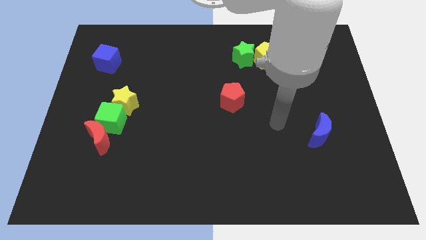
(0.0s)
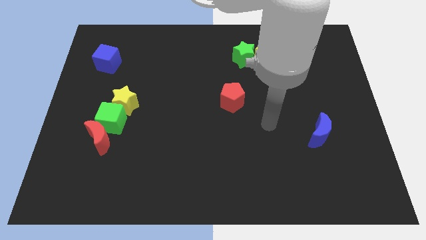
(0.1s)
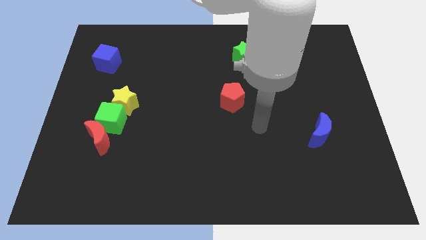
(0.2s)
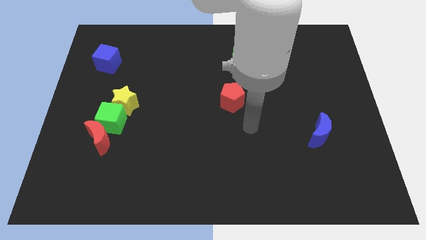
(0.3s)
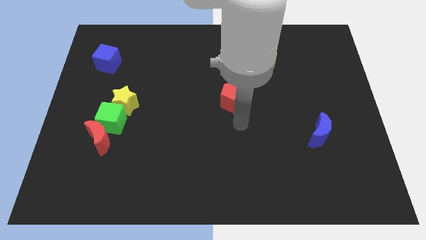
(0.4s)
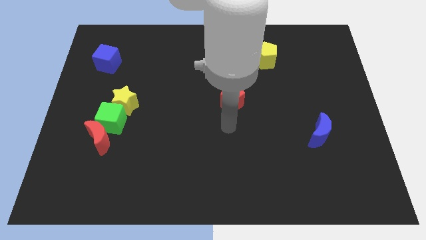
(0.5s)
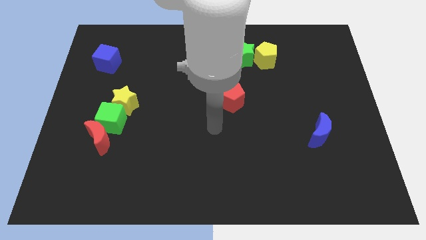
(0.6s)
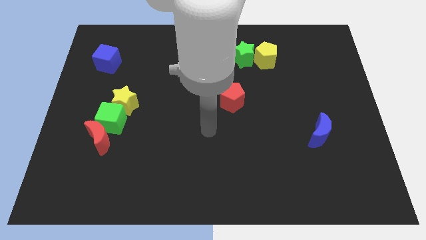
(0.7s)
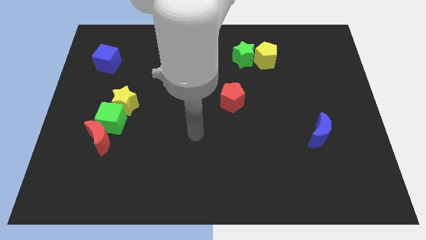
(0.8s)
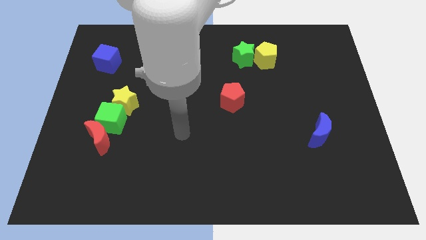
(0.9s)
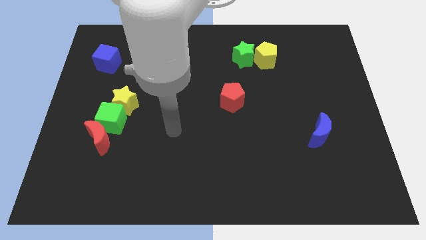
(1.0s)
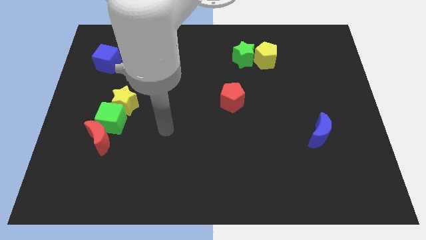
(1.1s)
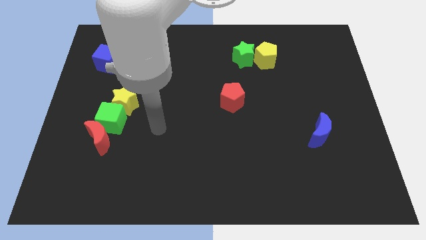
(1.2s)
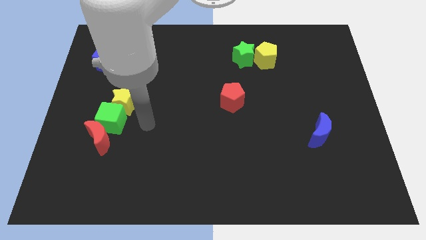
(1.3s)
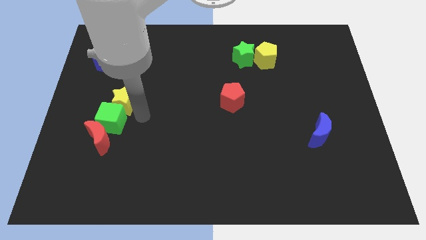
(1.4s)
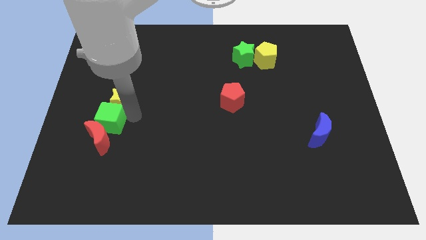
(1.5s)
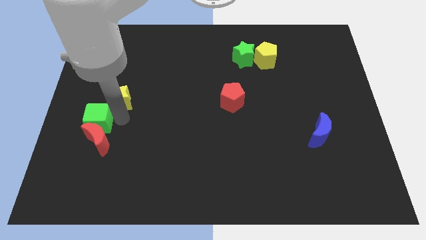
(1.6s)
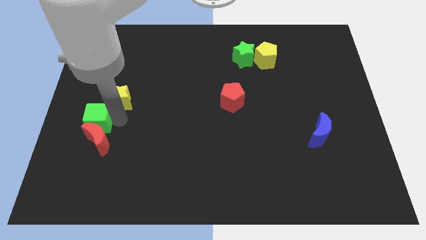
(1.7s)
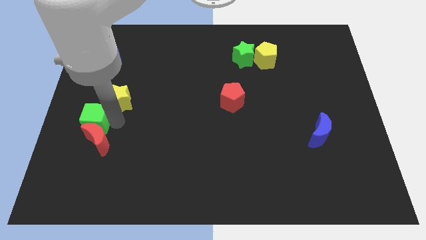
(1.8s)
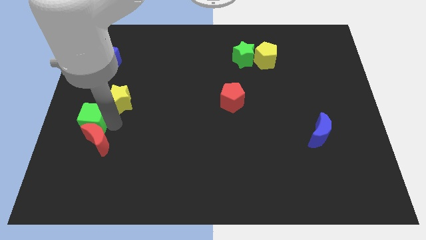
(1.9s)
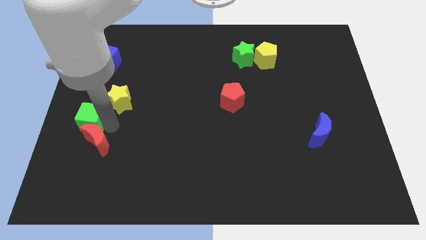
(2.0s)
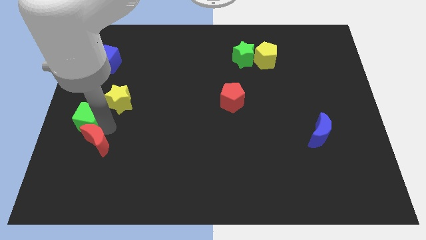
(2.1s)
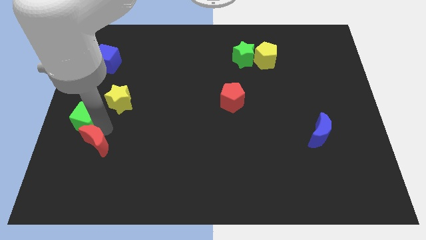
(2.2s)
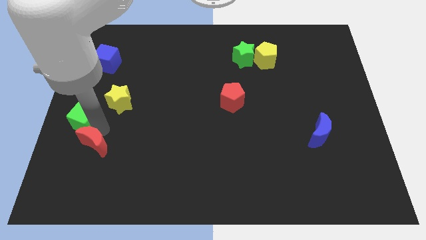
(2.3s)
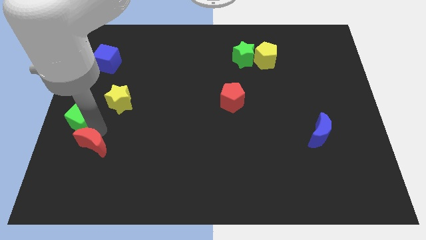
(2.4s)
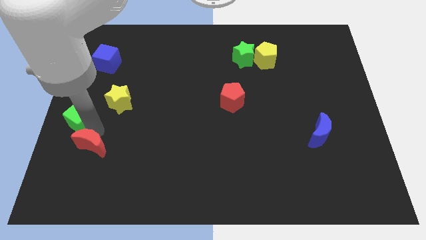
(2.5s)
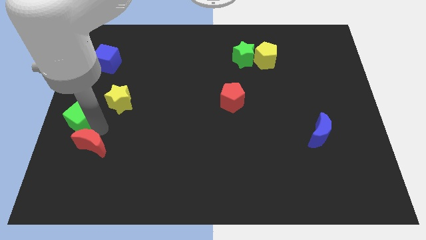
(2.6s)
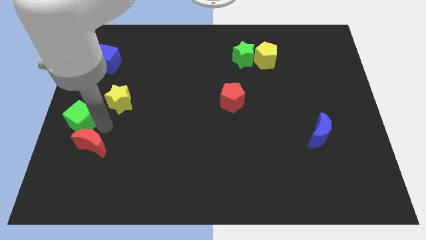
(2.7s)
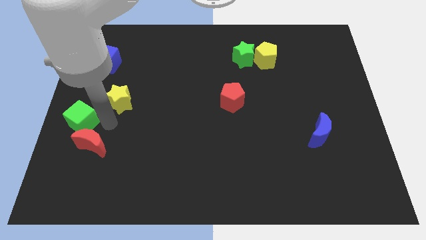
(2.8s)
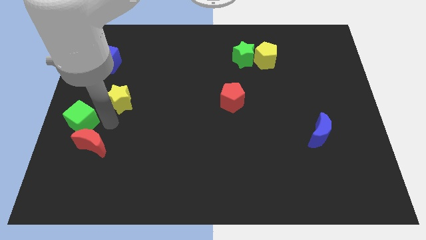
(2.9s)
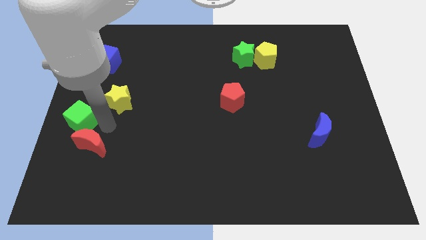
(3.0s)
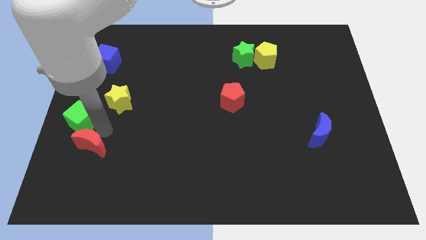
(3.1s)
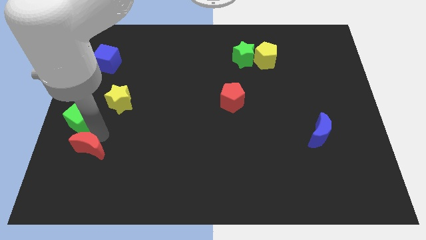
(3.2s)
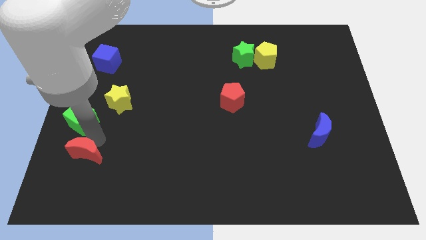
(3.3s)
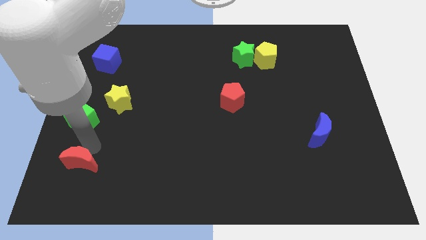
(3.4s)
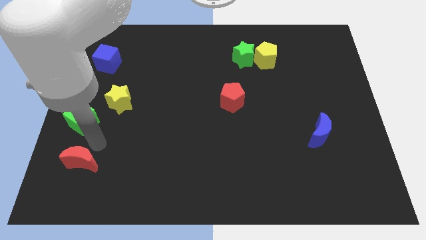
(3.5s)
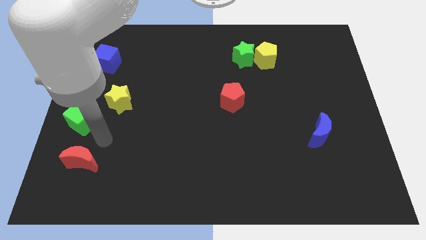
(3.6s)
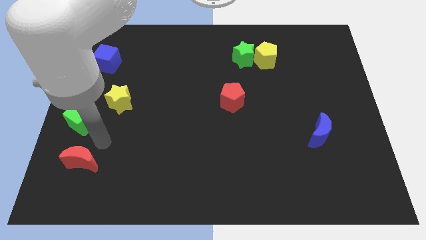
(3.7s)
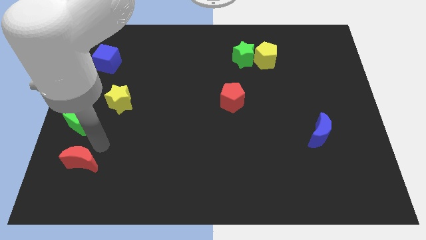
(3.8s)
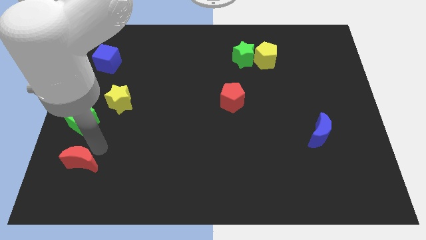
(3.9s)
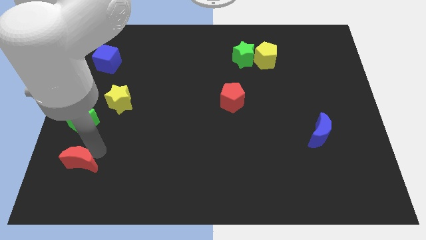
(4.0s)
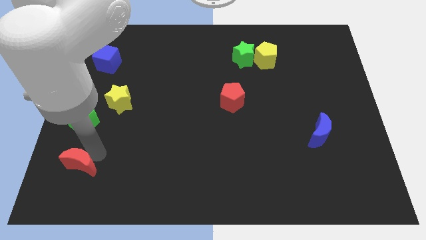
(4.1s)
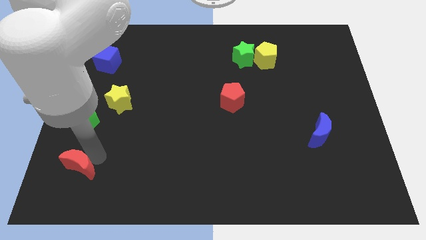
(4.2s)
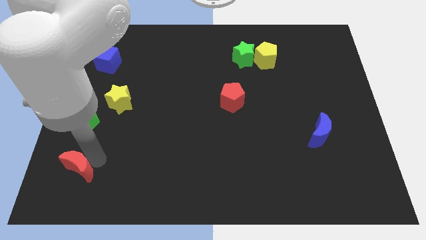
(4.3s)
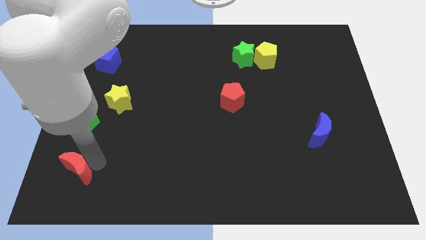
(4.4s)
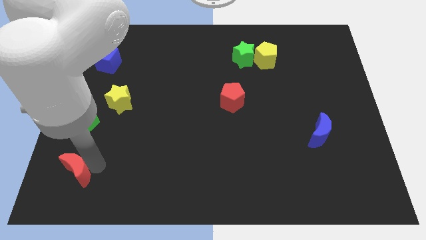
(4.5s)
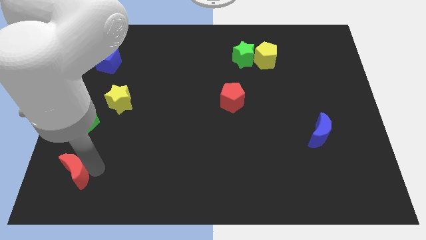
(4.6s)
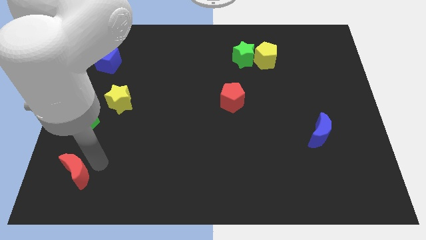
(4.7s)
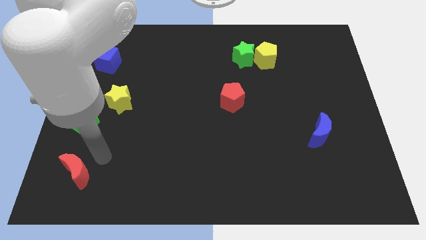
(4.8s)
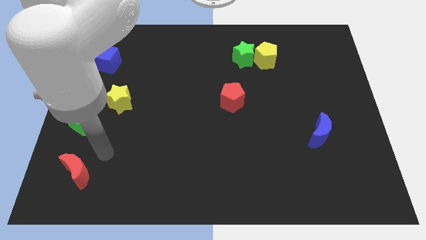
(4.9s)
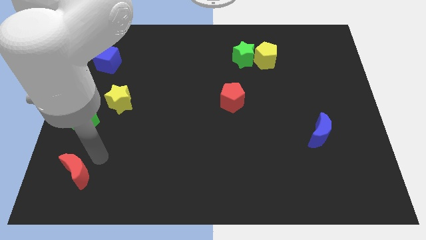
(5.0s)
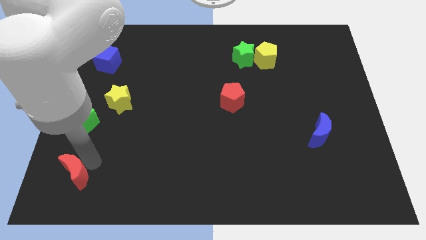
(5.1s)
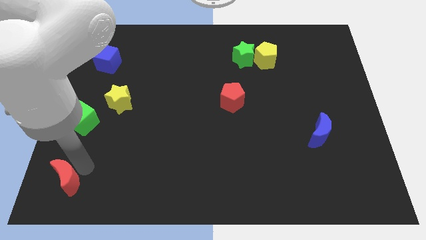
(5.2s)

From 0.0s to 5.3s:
move the red moon to the bottom left corner

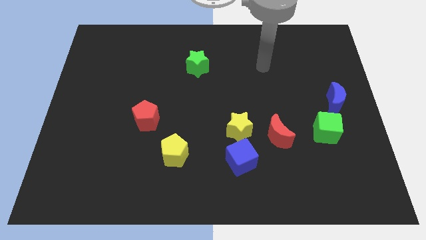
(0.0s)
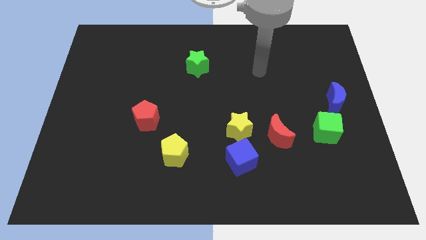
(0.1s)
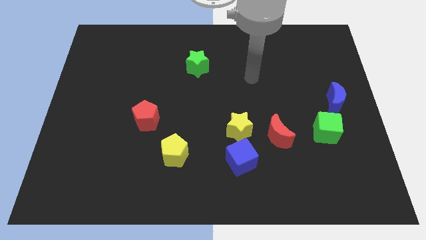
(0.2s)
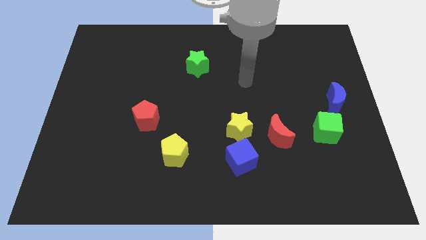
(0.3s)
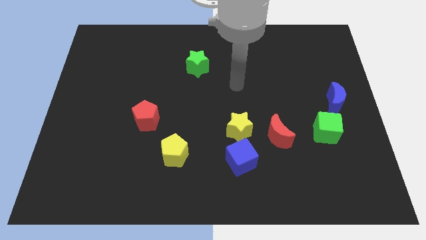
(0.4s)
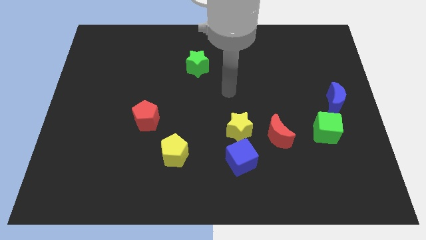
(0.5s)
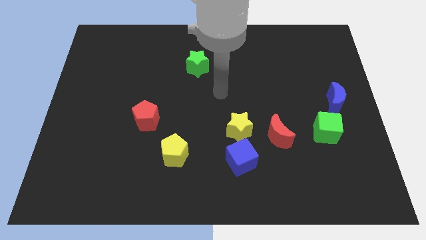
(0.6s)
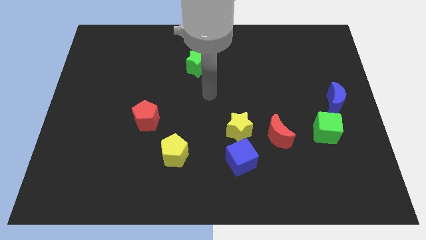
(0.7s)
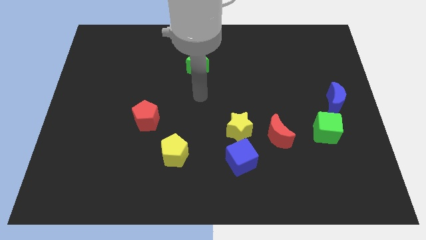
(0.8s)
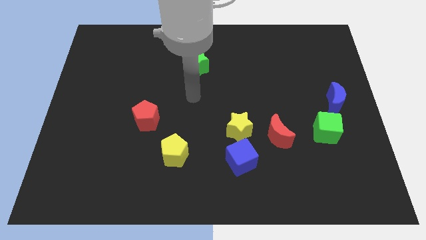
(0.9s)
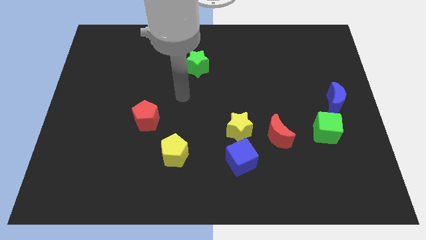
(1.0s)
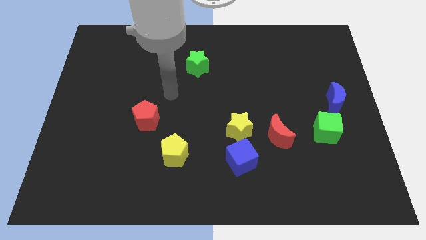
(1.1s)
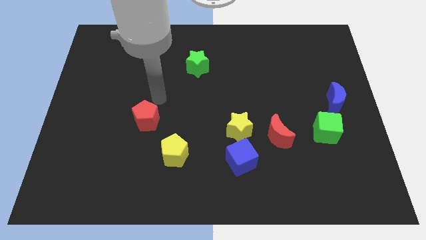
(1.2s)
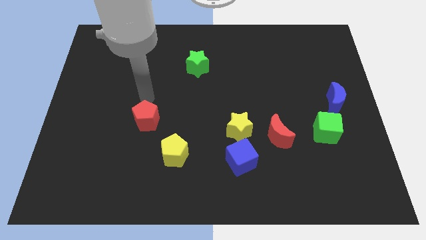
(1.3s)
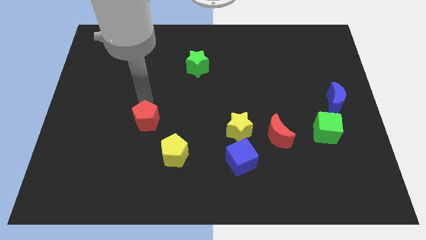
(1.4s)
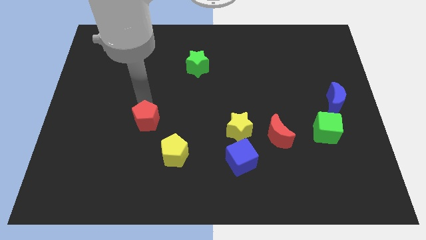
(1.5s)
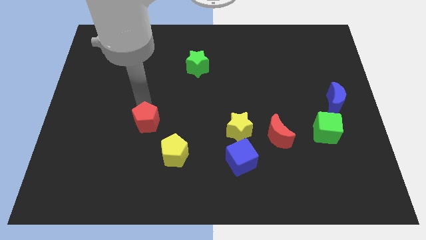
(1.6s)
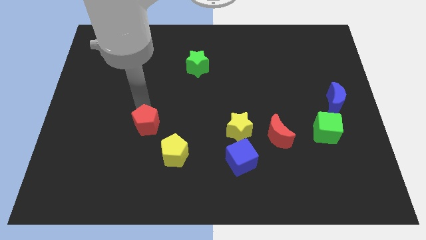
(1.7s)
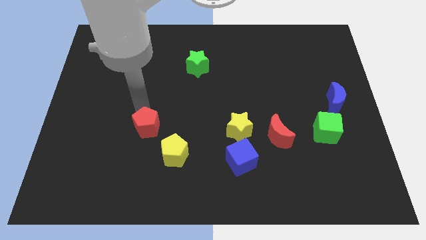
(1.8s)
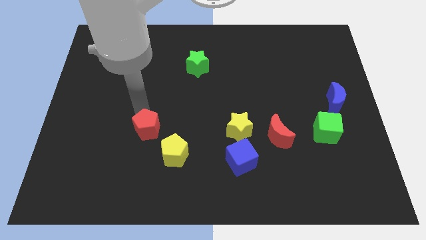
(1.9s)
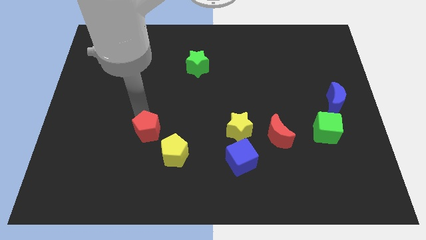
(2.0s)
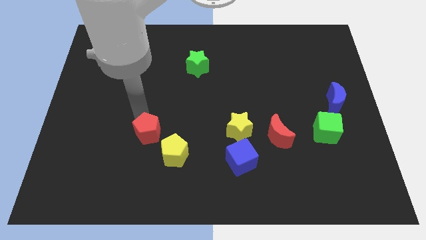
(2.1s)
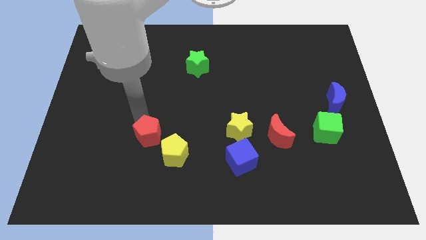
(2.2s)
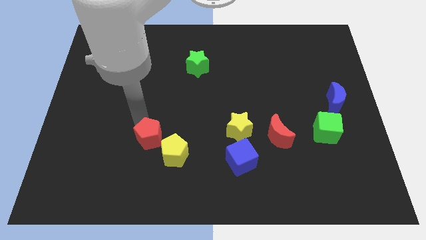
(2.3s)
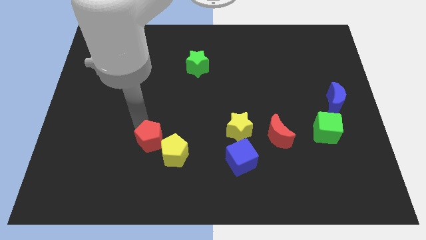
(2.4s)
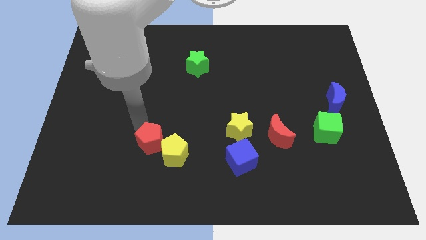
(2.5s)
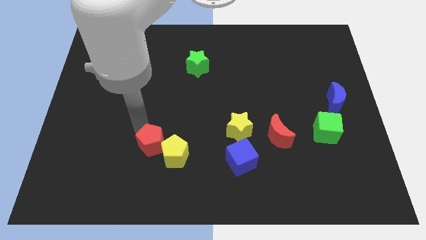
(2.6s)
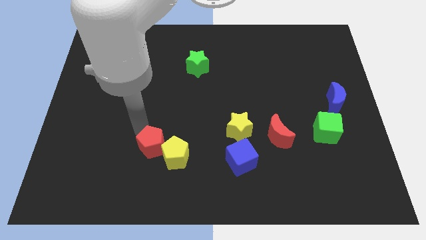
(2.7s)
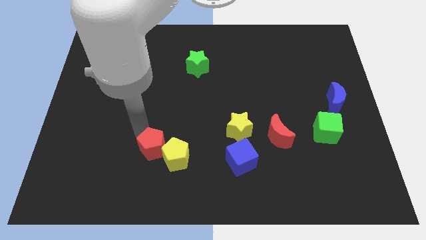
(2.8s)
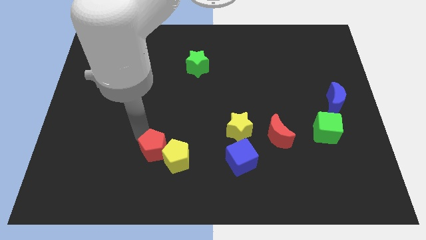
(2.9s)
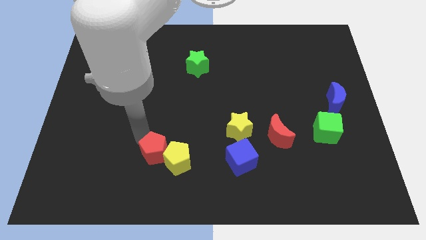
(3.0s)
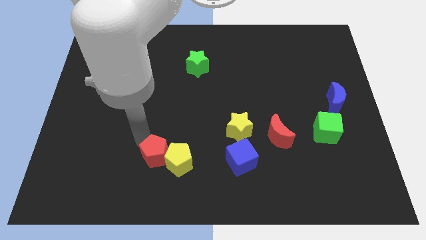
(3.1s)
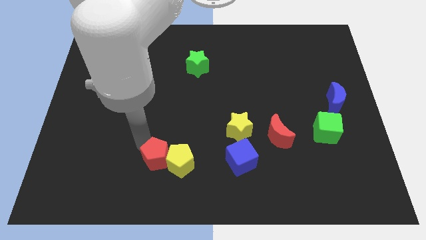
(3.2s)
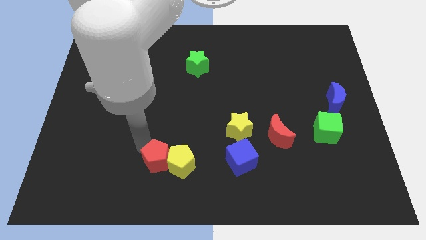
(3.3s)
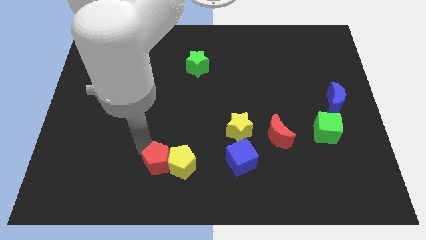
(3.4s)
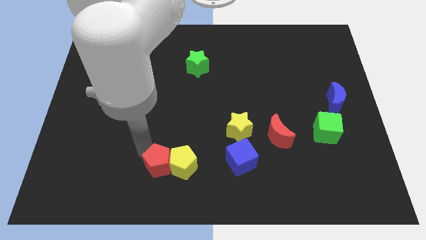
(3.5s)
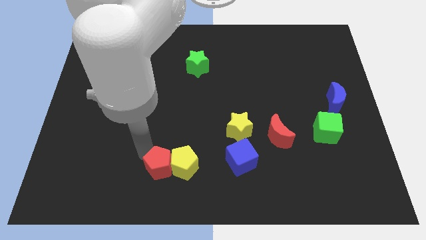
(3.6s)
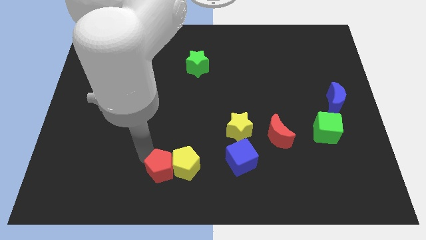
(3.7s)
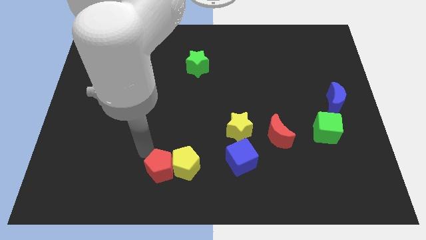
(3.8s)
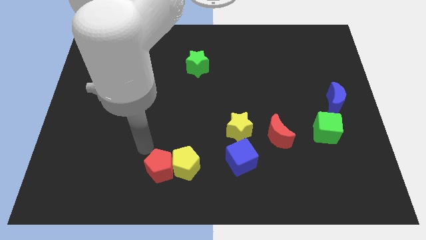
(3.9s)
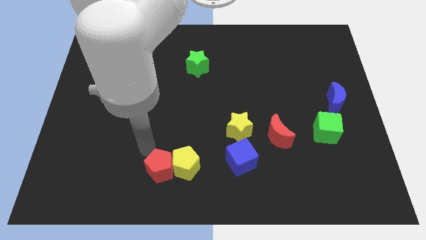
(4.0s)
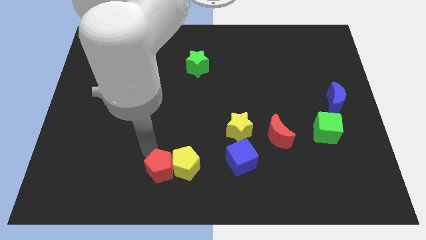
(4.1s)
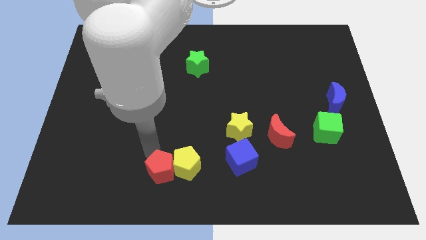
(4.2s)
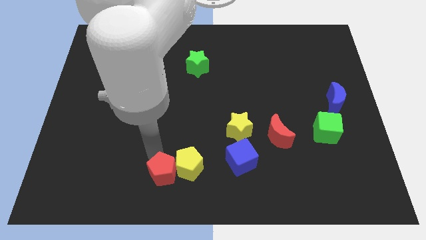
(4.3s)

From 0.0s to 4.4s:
move the red pentagon to the bottom
